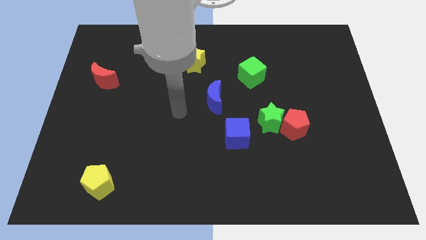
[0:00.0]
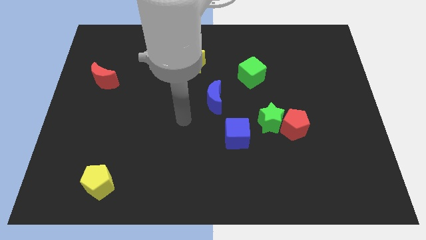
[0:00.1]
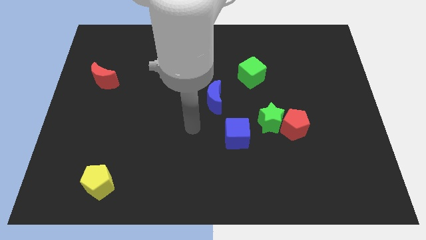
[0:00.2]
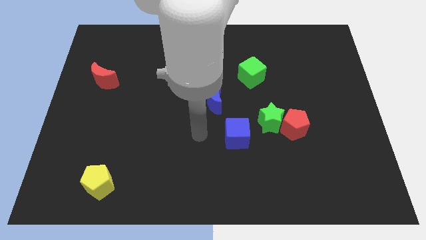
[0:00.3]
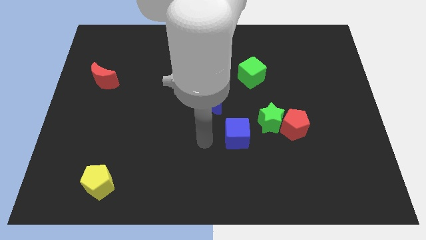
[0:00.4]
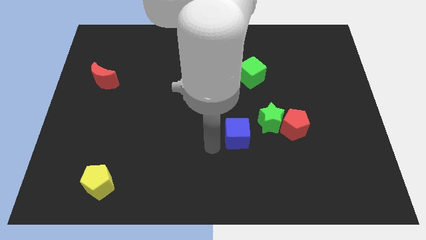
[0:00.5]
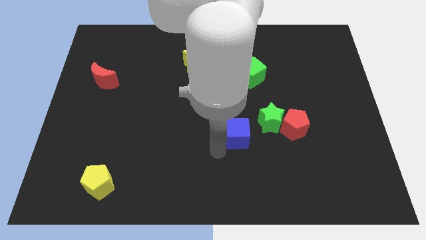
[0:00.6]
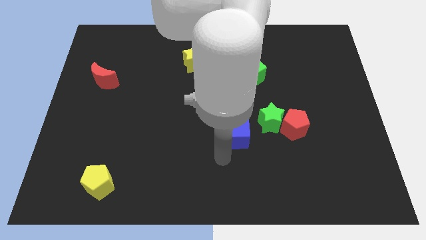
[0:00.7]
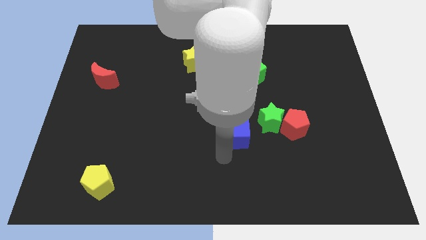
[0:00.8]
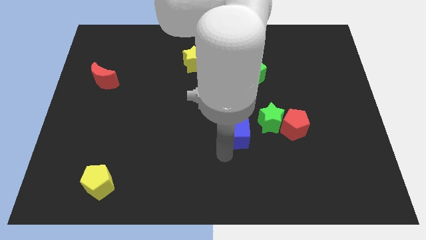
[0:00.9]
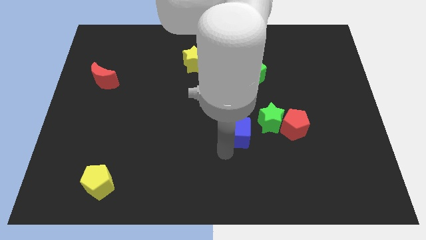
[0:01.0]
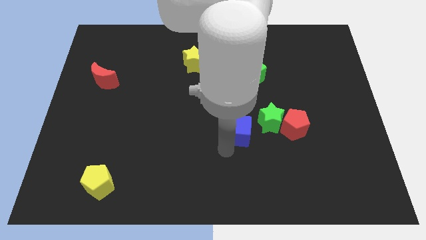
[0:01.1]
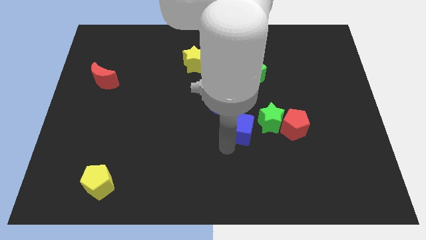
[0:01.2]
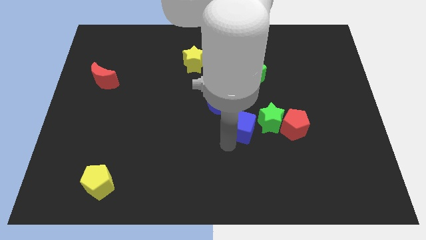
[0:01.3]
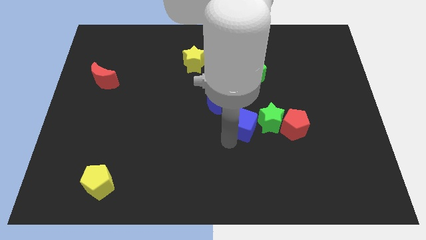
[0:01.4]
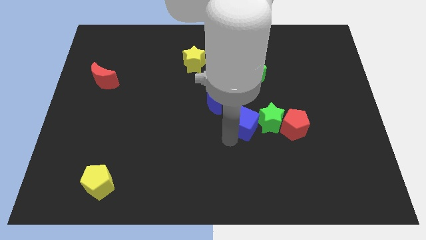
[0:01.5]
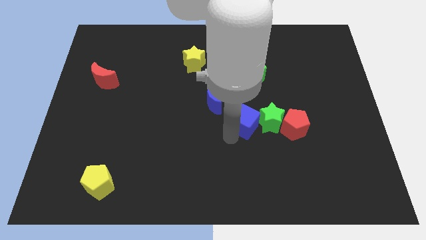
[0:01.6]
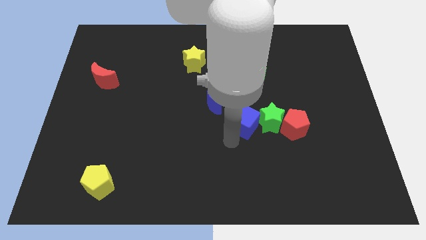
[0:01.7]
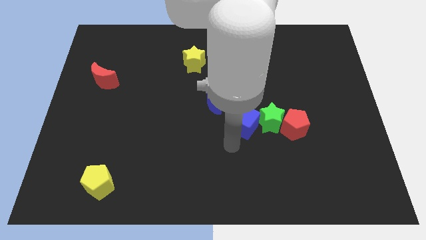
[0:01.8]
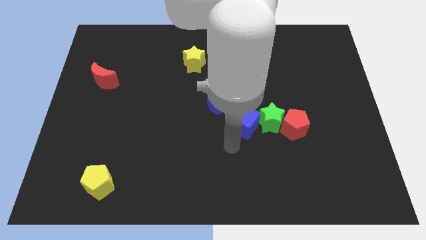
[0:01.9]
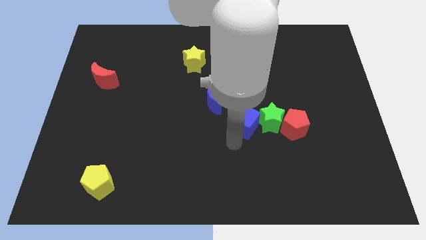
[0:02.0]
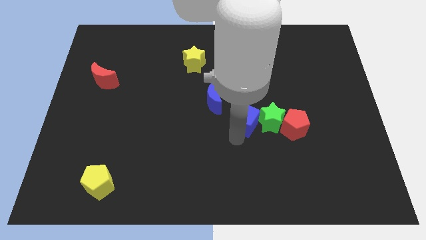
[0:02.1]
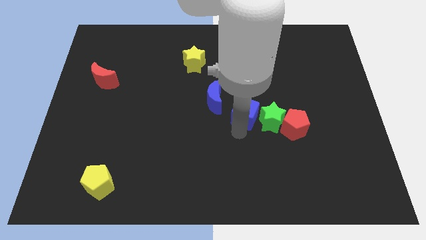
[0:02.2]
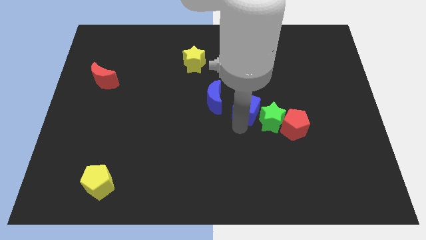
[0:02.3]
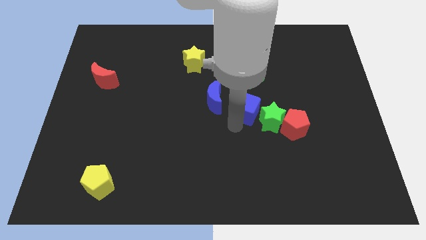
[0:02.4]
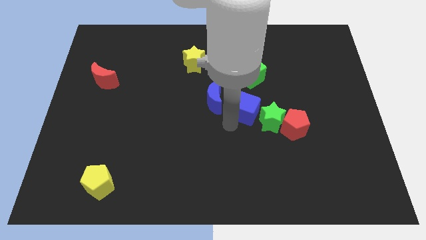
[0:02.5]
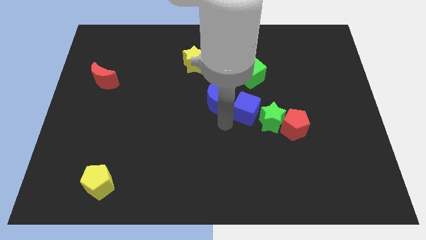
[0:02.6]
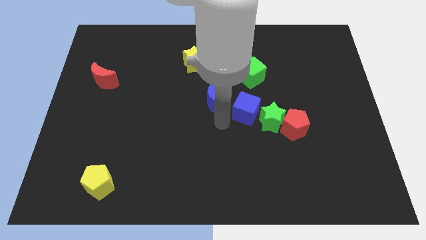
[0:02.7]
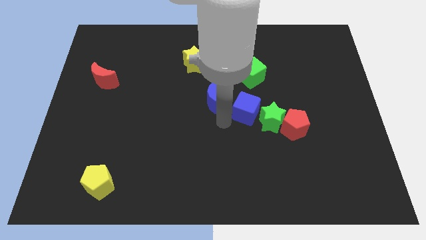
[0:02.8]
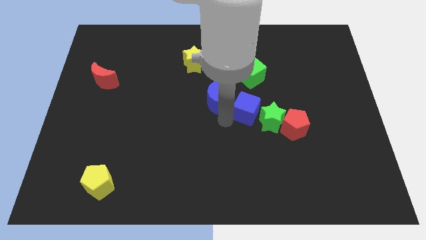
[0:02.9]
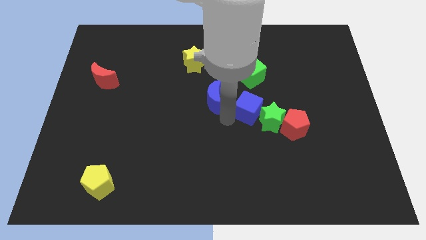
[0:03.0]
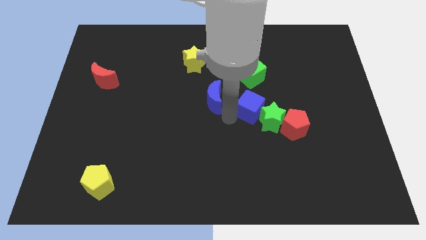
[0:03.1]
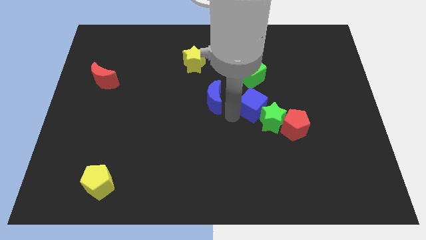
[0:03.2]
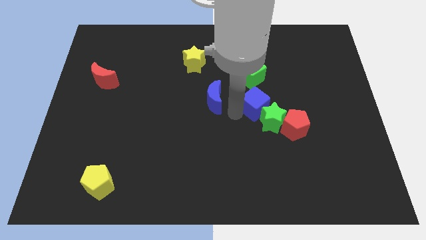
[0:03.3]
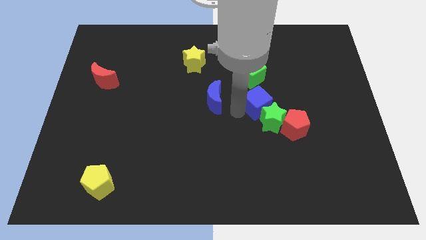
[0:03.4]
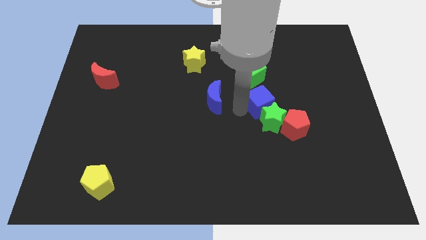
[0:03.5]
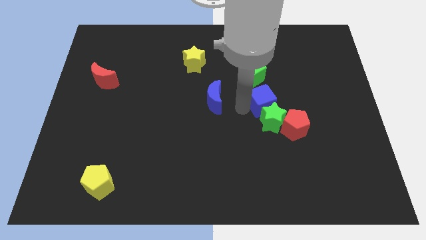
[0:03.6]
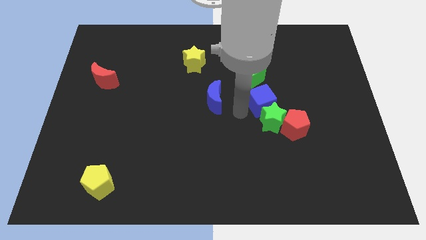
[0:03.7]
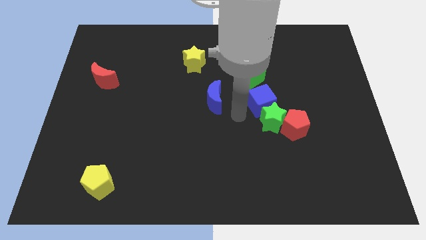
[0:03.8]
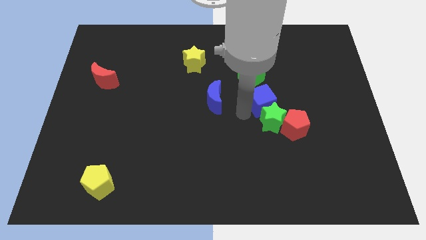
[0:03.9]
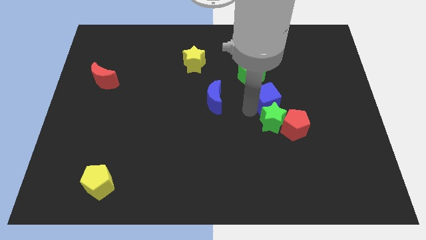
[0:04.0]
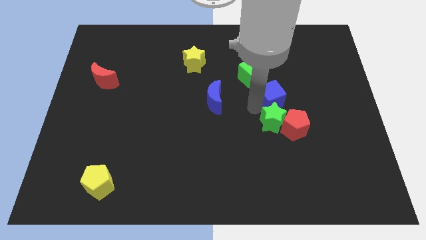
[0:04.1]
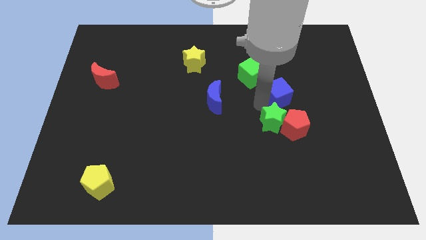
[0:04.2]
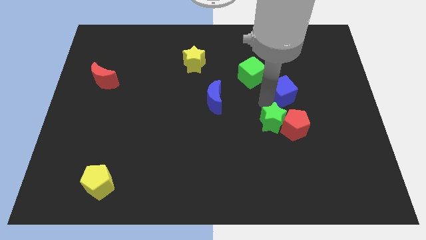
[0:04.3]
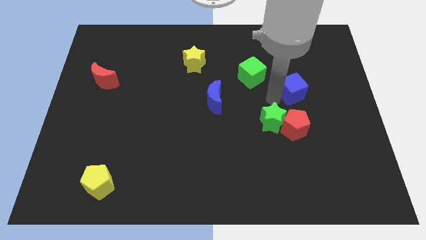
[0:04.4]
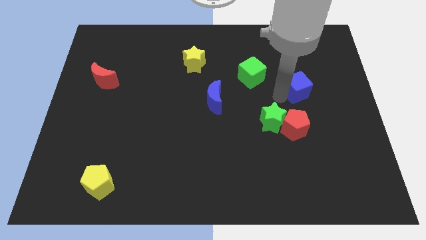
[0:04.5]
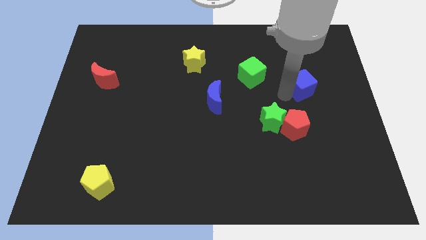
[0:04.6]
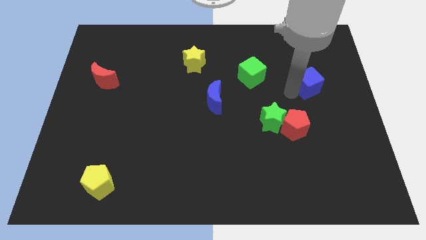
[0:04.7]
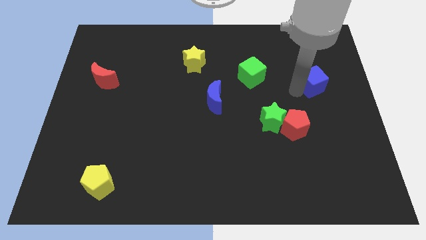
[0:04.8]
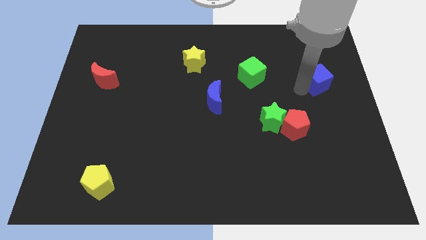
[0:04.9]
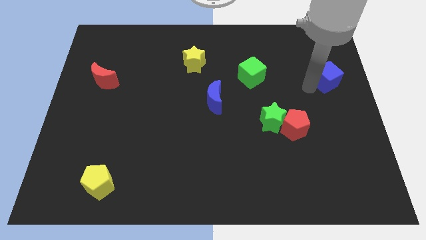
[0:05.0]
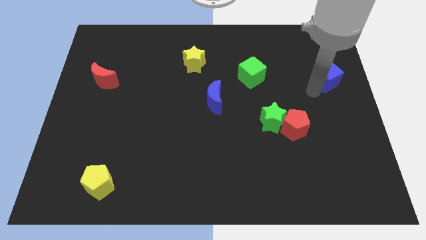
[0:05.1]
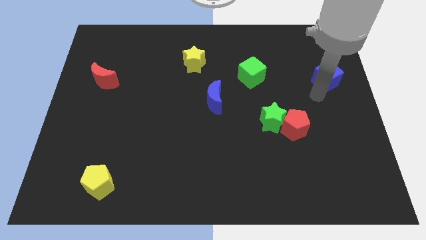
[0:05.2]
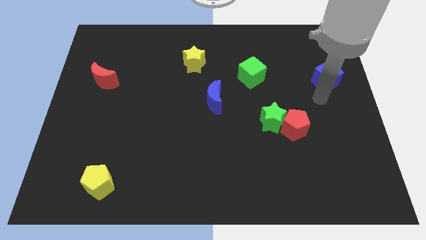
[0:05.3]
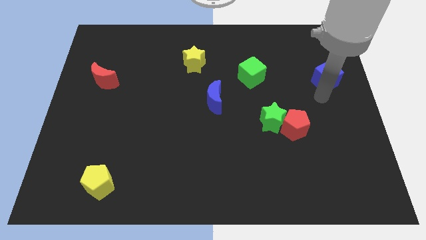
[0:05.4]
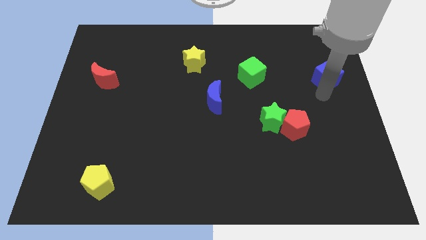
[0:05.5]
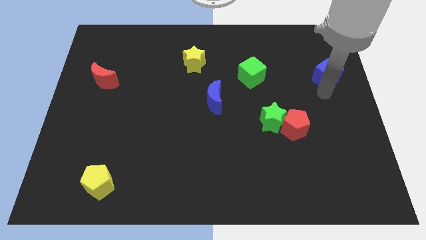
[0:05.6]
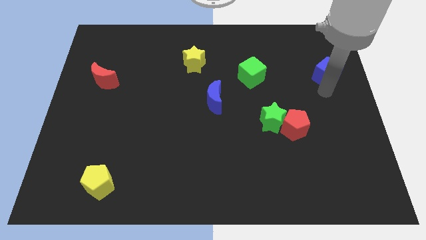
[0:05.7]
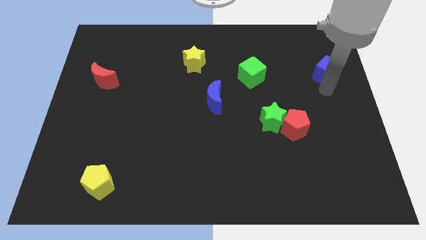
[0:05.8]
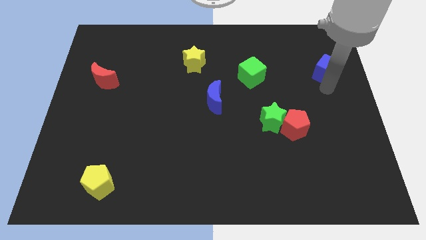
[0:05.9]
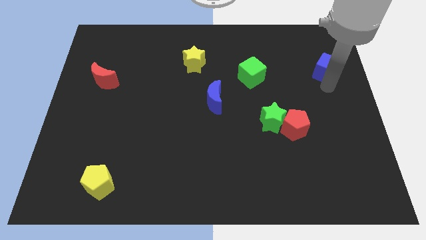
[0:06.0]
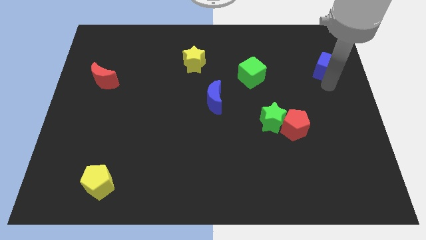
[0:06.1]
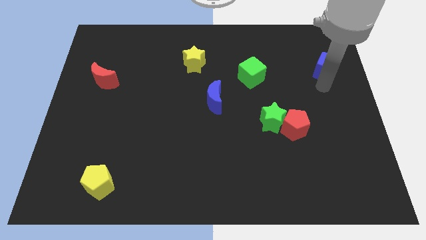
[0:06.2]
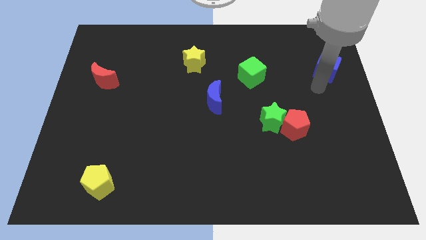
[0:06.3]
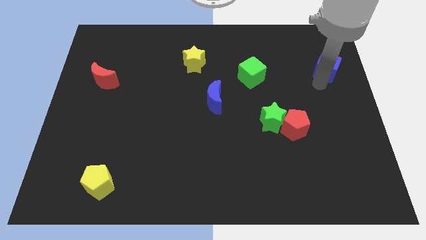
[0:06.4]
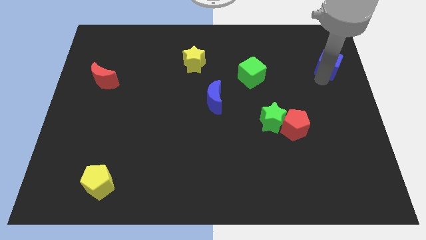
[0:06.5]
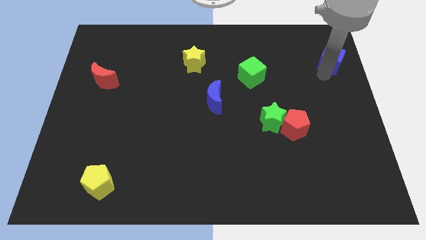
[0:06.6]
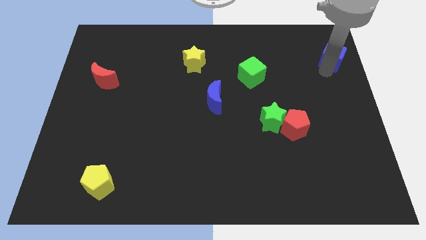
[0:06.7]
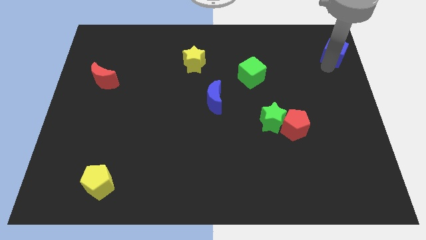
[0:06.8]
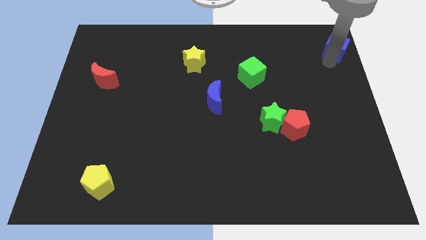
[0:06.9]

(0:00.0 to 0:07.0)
push the blue cube to the top right of the board
